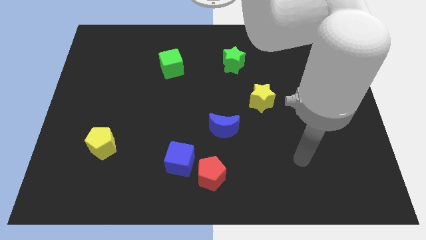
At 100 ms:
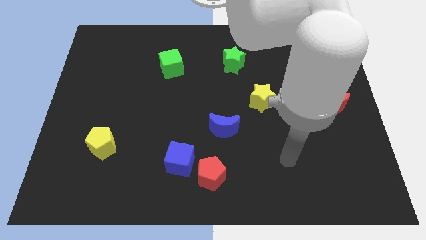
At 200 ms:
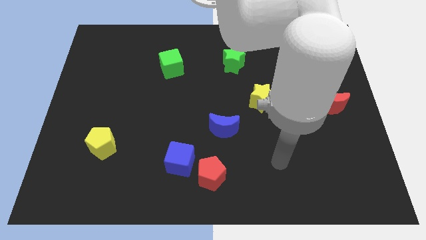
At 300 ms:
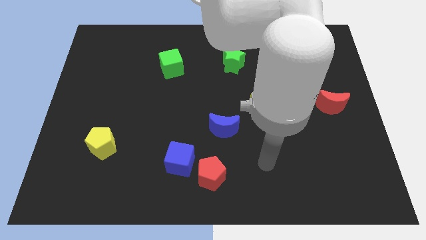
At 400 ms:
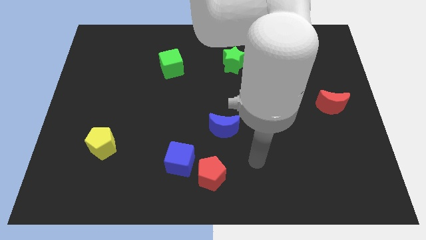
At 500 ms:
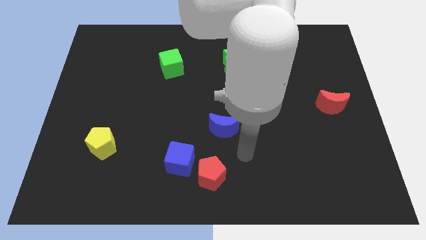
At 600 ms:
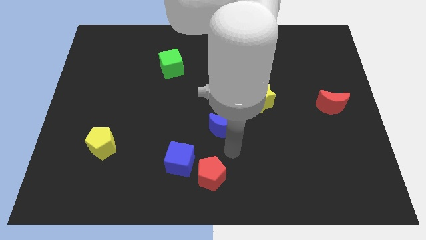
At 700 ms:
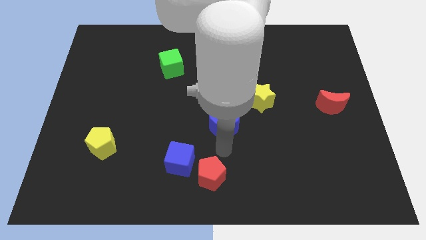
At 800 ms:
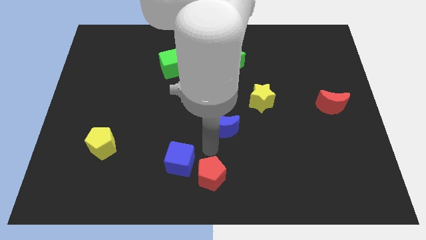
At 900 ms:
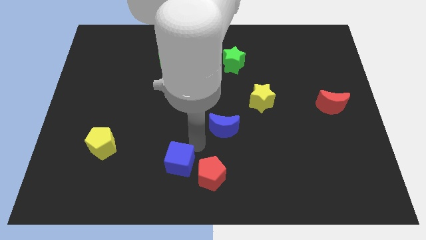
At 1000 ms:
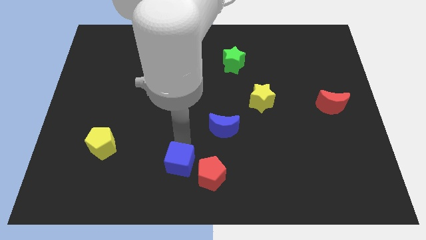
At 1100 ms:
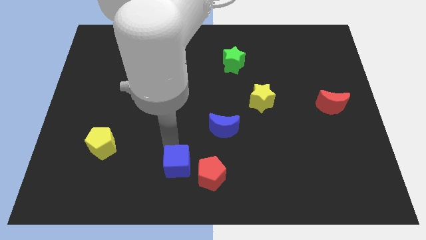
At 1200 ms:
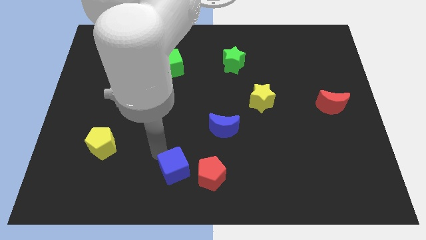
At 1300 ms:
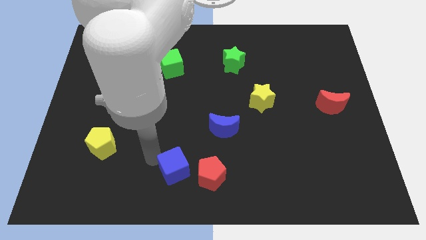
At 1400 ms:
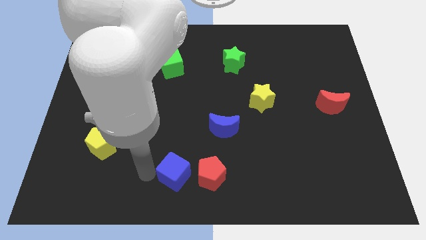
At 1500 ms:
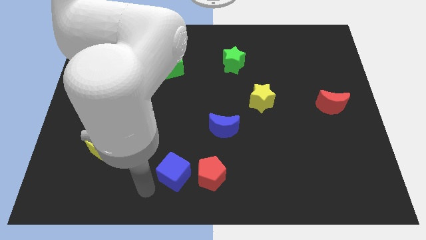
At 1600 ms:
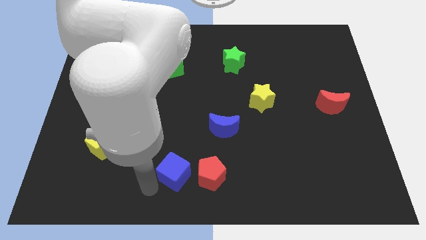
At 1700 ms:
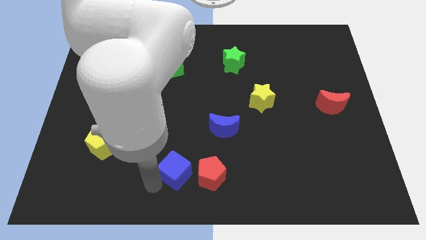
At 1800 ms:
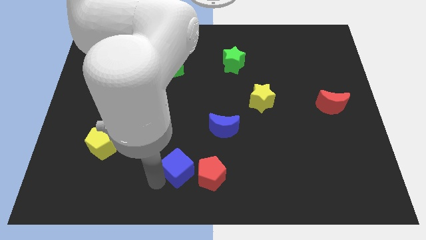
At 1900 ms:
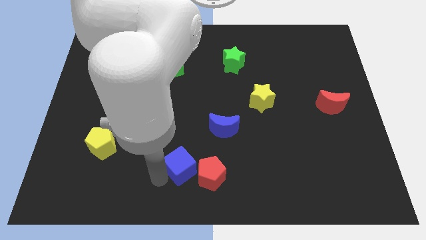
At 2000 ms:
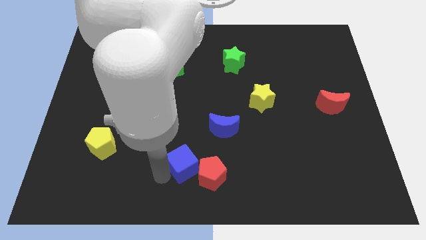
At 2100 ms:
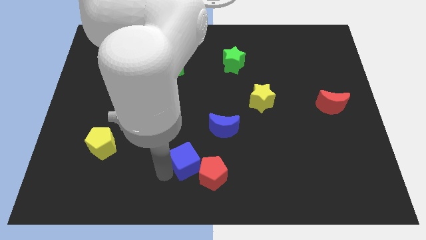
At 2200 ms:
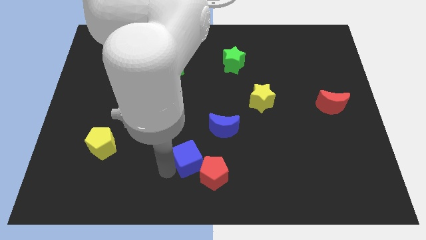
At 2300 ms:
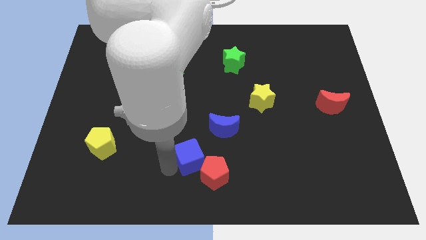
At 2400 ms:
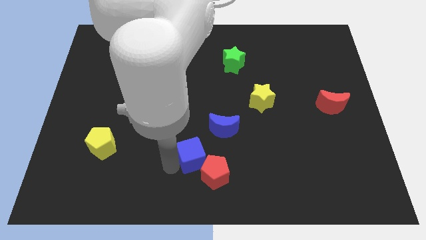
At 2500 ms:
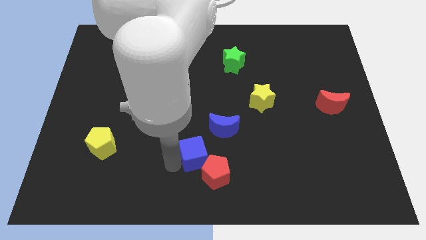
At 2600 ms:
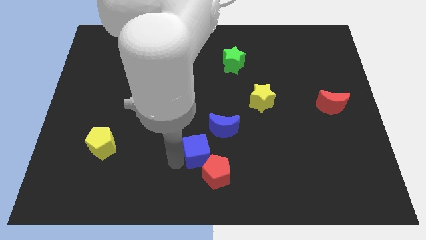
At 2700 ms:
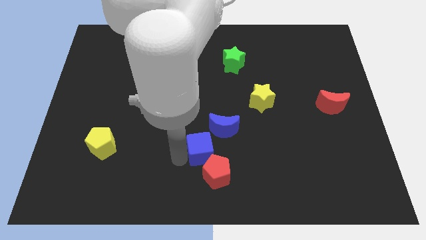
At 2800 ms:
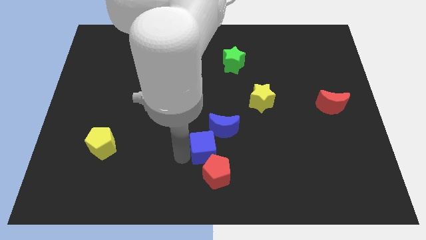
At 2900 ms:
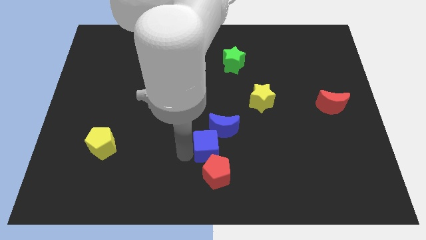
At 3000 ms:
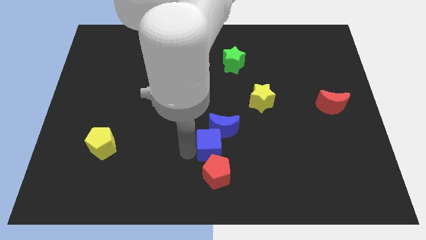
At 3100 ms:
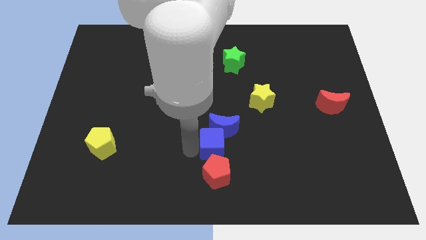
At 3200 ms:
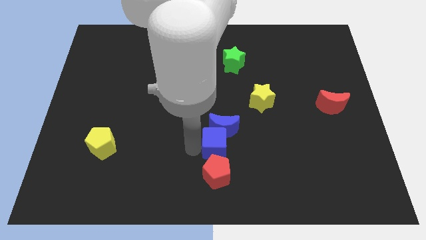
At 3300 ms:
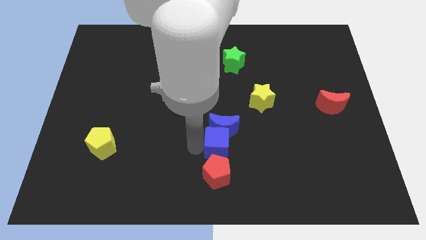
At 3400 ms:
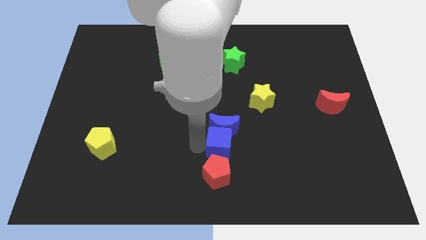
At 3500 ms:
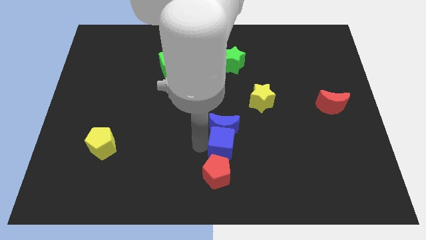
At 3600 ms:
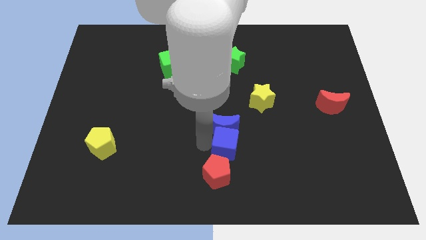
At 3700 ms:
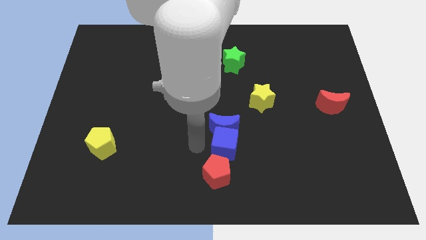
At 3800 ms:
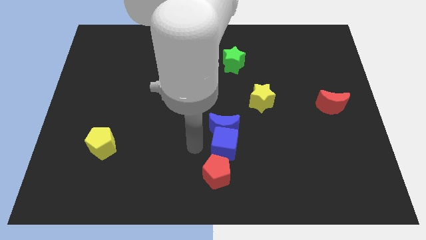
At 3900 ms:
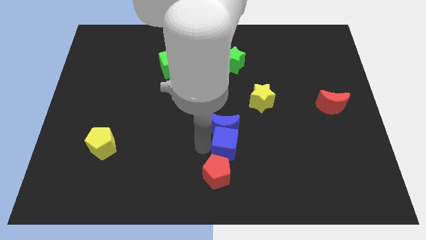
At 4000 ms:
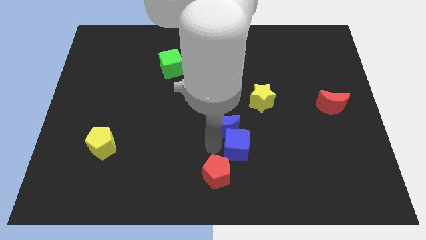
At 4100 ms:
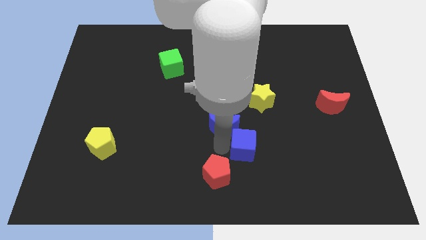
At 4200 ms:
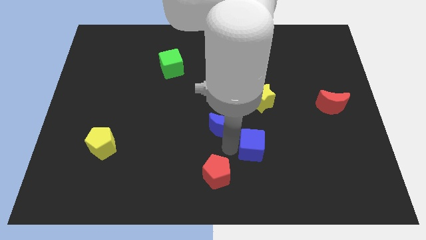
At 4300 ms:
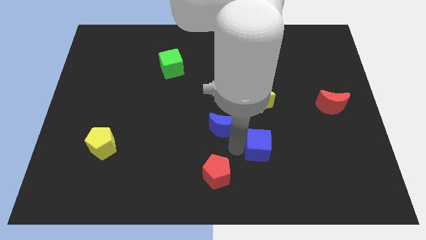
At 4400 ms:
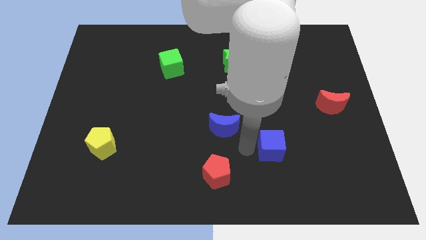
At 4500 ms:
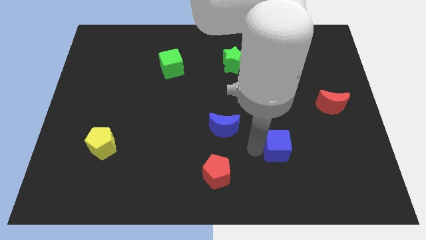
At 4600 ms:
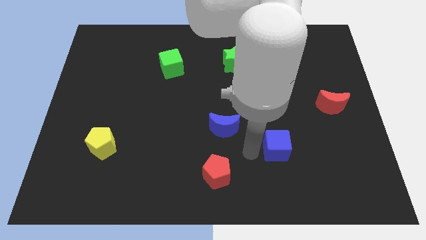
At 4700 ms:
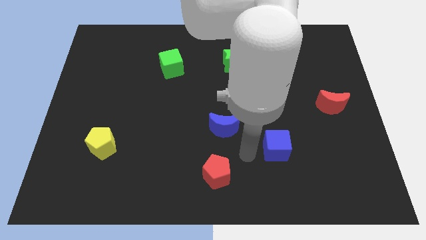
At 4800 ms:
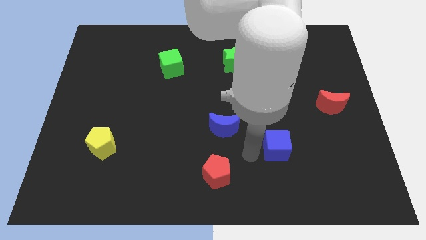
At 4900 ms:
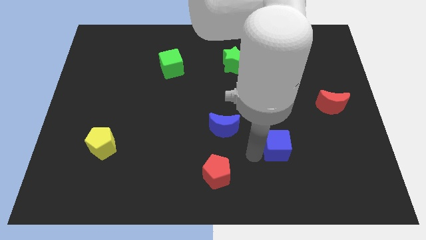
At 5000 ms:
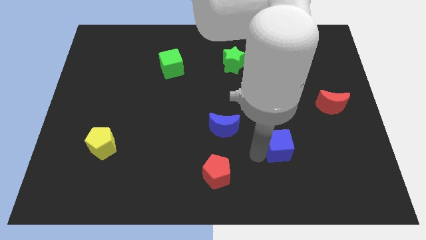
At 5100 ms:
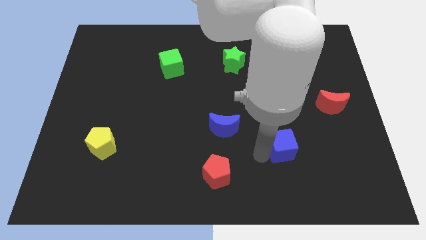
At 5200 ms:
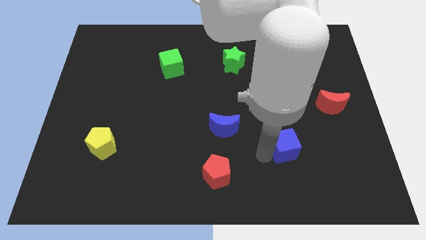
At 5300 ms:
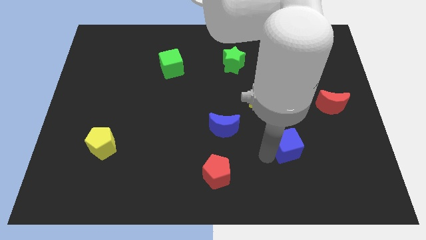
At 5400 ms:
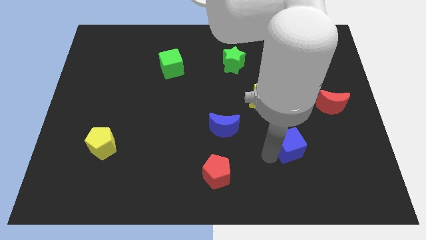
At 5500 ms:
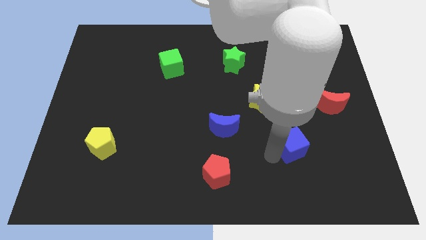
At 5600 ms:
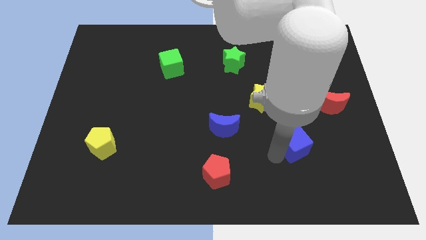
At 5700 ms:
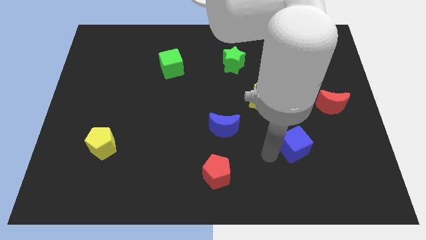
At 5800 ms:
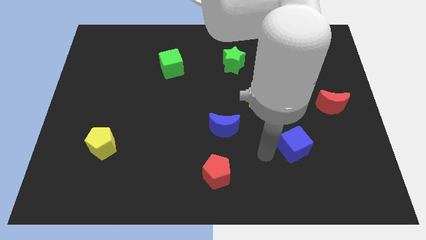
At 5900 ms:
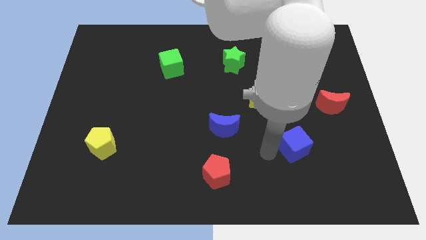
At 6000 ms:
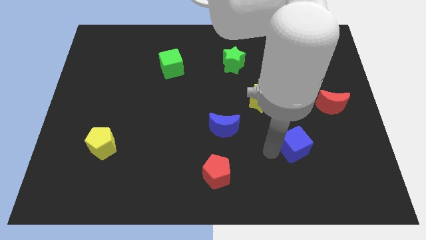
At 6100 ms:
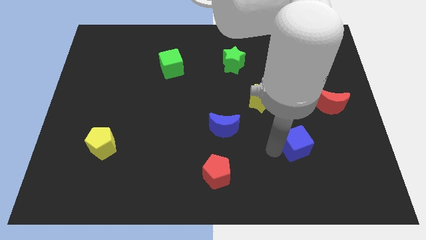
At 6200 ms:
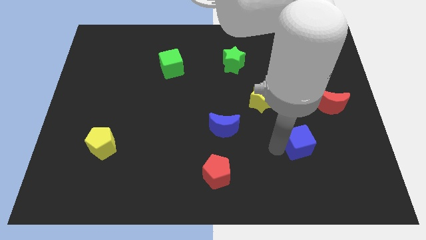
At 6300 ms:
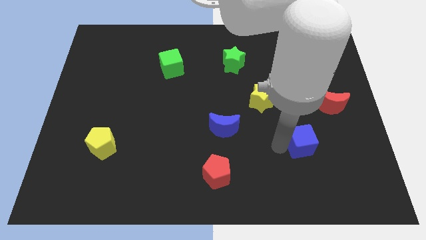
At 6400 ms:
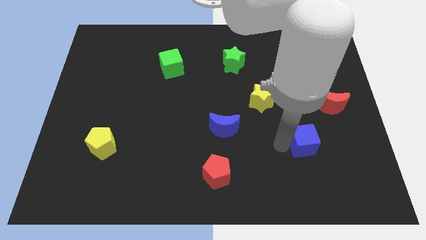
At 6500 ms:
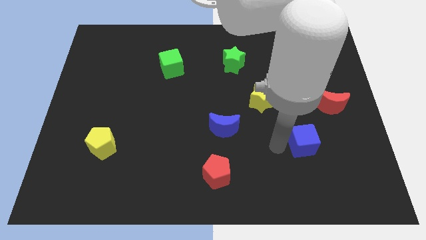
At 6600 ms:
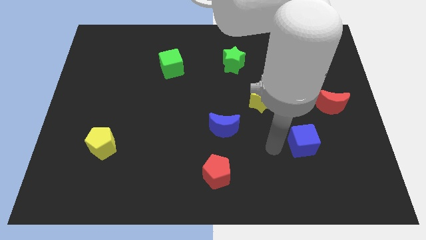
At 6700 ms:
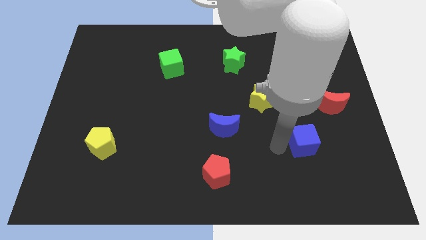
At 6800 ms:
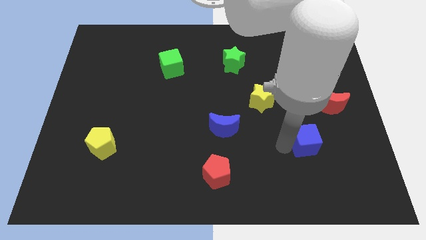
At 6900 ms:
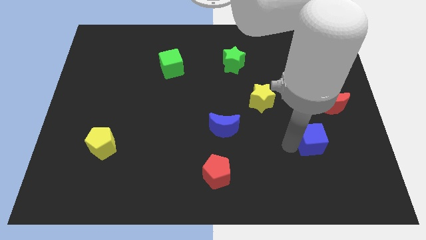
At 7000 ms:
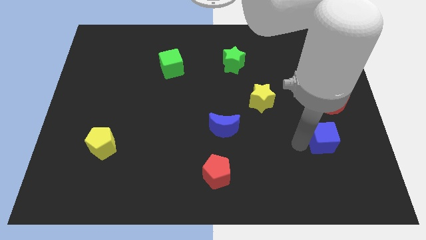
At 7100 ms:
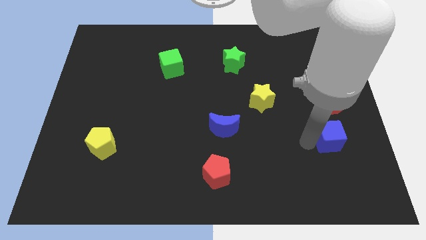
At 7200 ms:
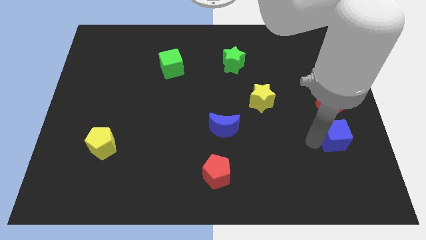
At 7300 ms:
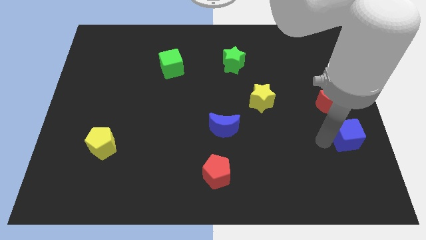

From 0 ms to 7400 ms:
slide the blue cube to the right side
